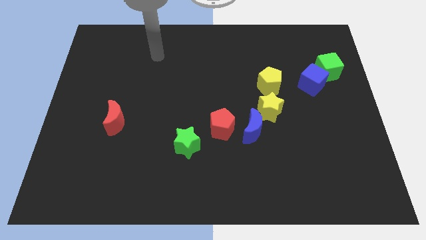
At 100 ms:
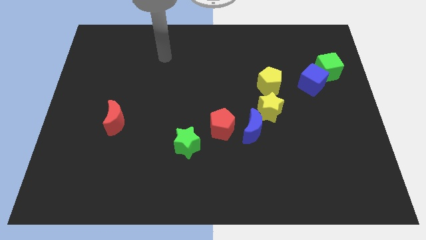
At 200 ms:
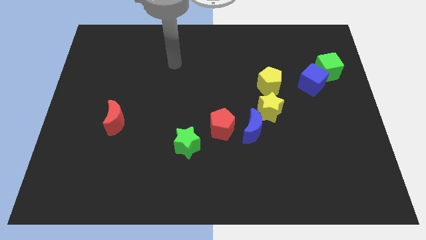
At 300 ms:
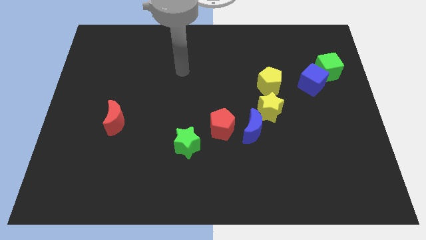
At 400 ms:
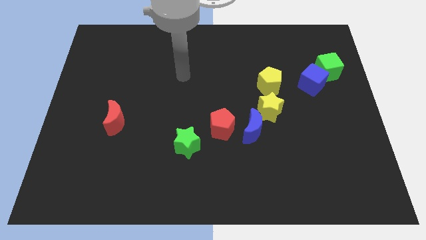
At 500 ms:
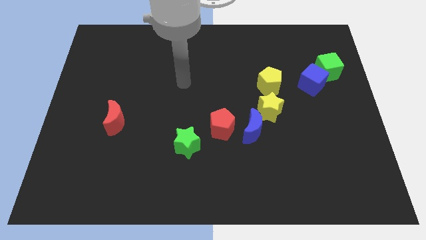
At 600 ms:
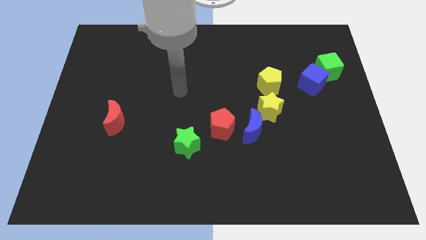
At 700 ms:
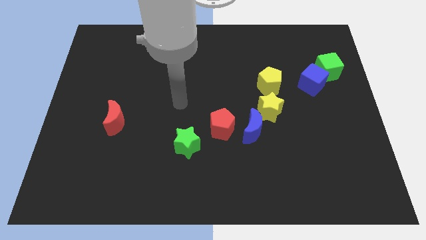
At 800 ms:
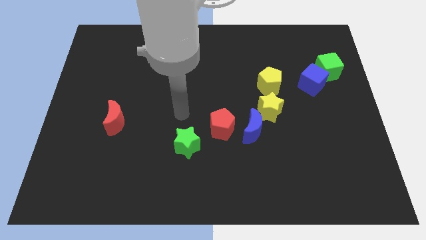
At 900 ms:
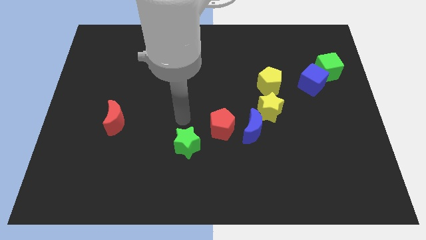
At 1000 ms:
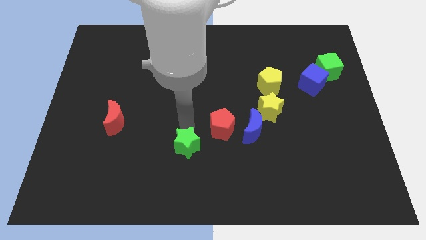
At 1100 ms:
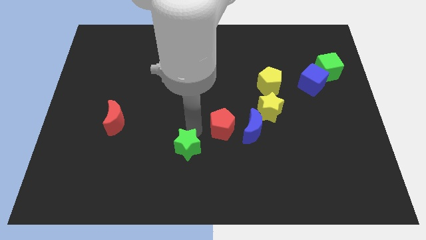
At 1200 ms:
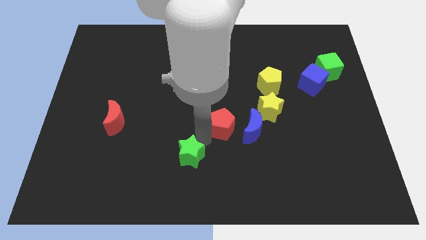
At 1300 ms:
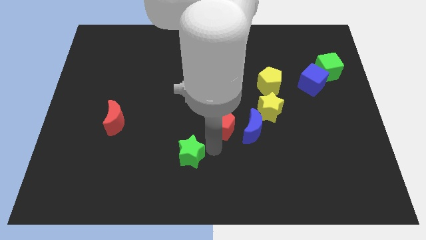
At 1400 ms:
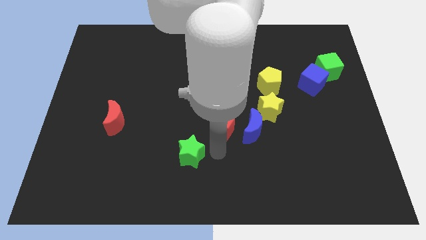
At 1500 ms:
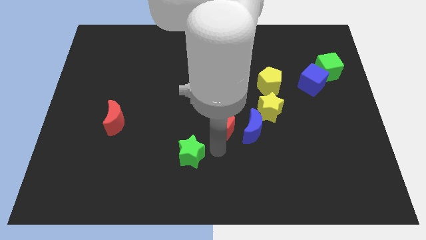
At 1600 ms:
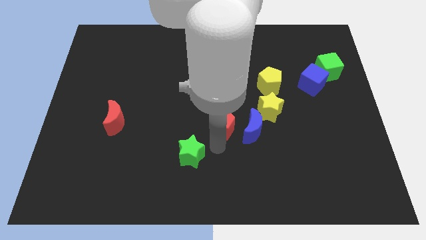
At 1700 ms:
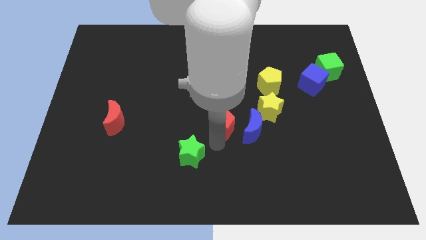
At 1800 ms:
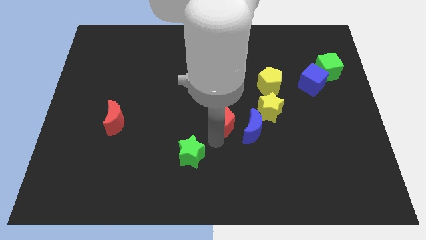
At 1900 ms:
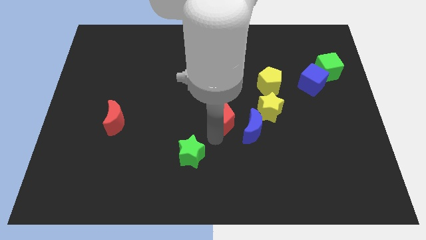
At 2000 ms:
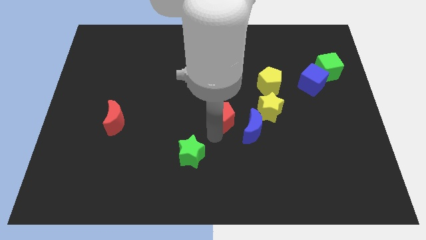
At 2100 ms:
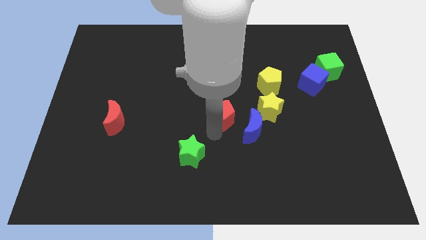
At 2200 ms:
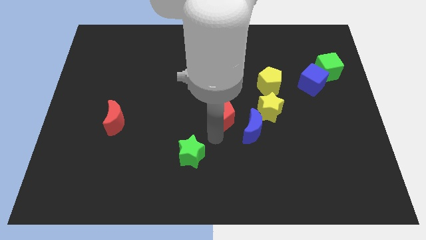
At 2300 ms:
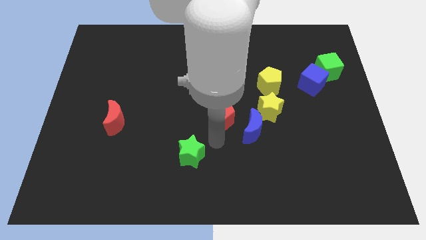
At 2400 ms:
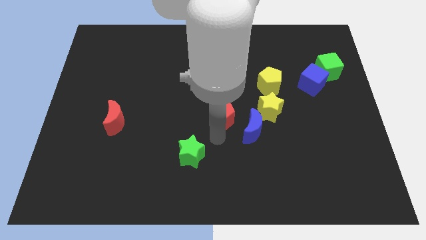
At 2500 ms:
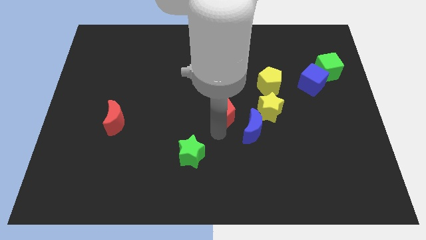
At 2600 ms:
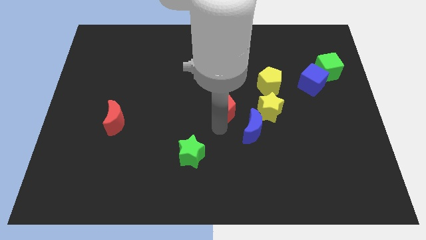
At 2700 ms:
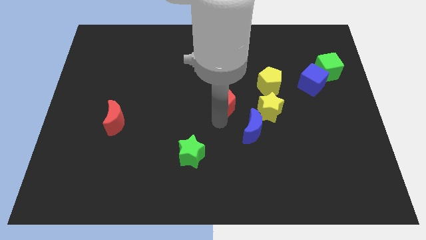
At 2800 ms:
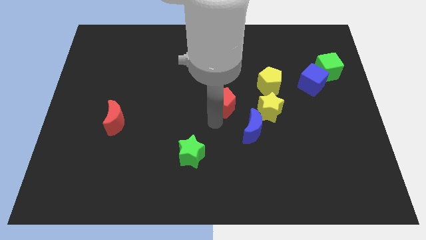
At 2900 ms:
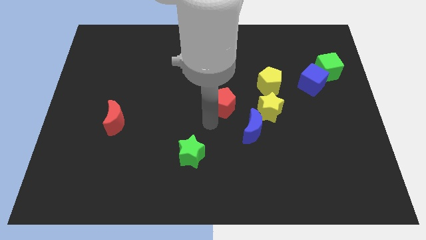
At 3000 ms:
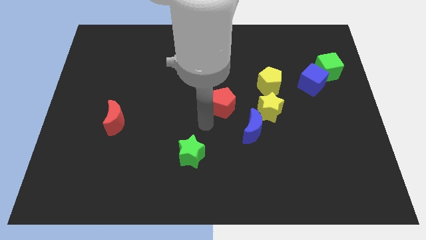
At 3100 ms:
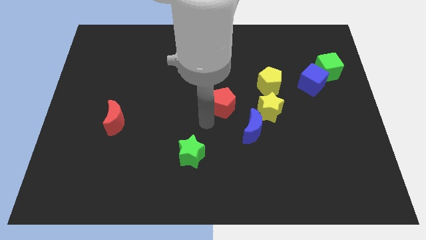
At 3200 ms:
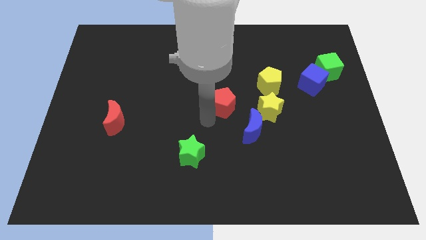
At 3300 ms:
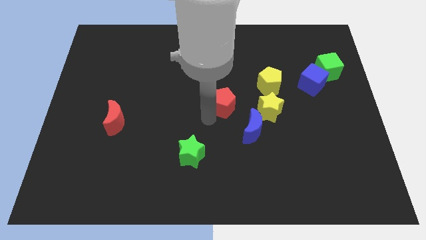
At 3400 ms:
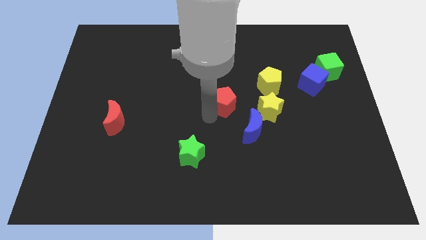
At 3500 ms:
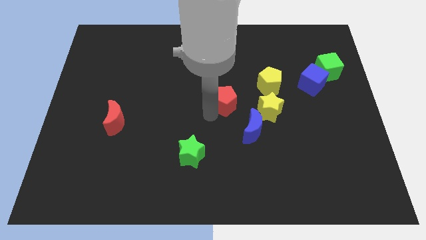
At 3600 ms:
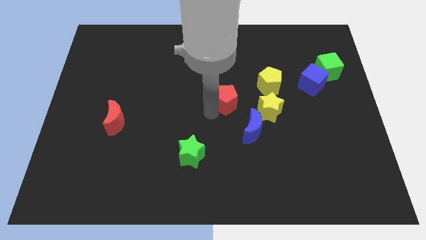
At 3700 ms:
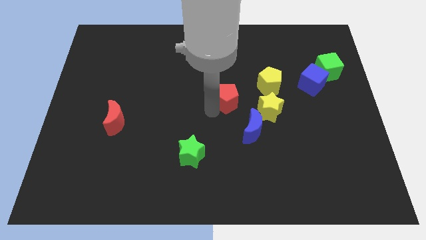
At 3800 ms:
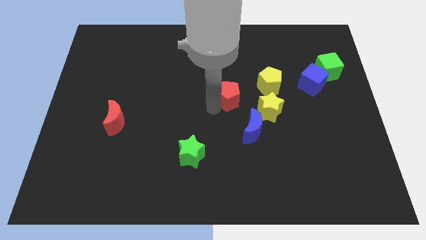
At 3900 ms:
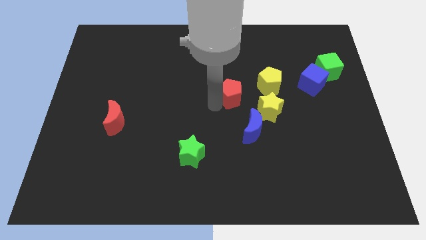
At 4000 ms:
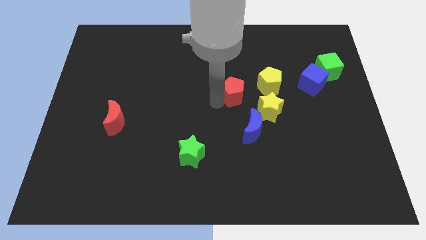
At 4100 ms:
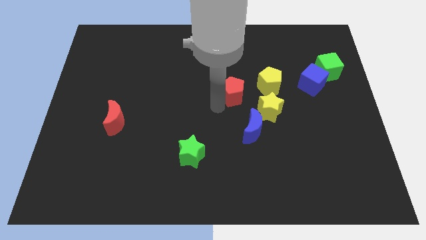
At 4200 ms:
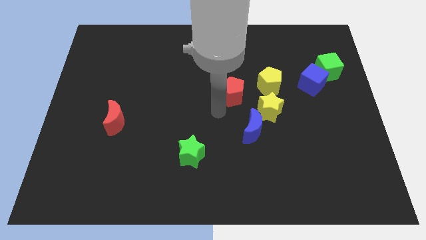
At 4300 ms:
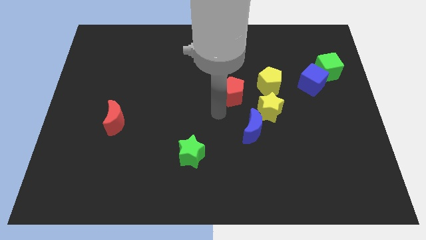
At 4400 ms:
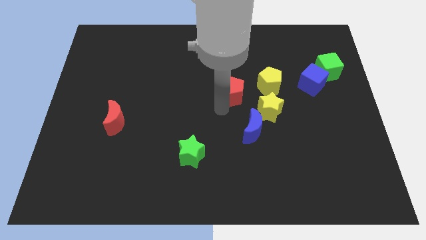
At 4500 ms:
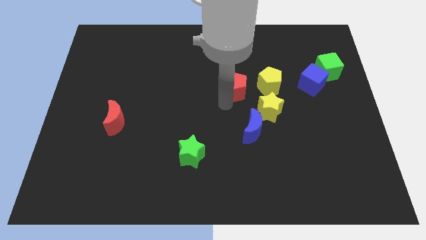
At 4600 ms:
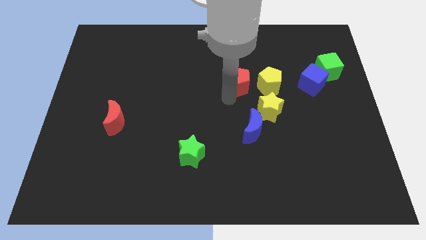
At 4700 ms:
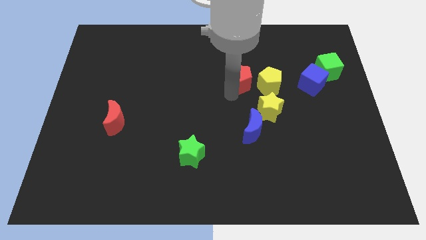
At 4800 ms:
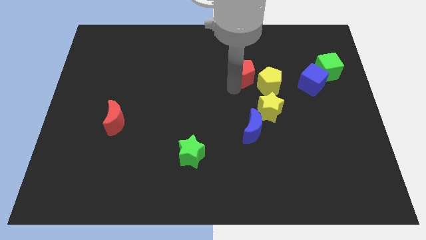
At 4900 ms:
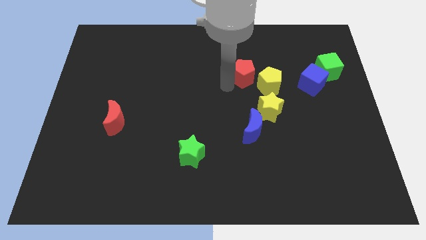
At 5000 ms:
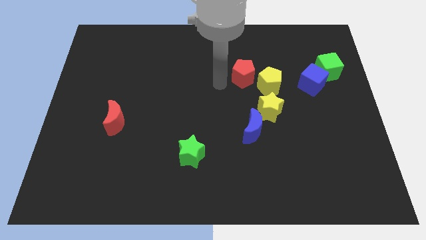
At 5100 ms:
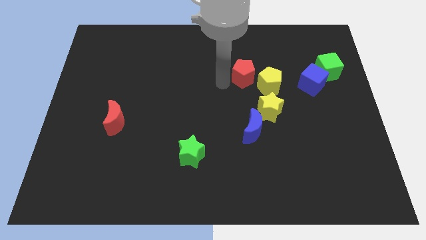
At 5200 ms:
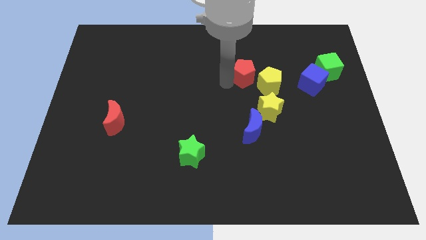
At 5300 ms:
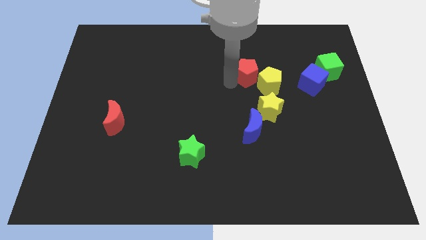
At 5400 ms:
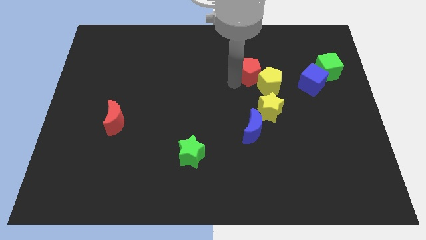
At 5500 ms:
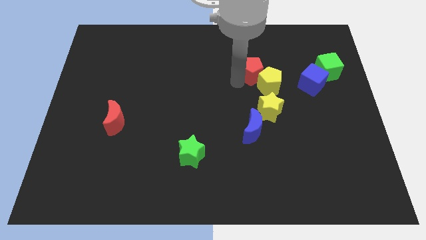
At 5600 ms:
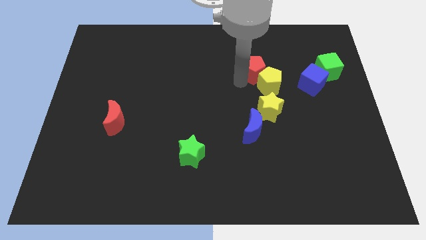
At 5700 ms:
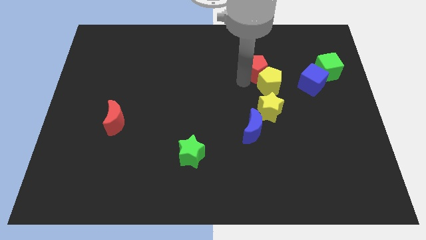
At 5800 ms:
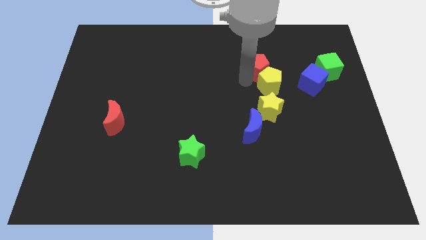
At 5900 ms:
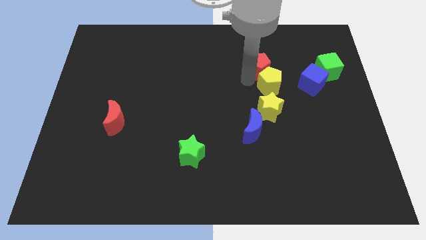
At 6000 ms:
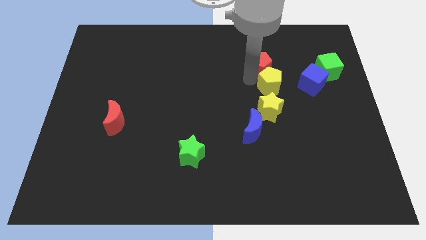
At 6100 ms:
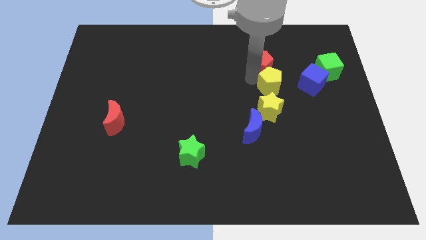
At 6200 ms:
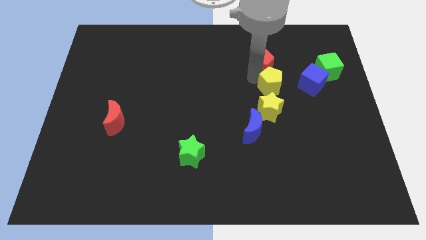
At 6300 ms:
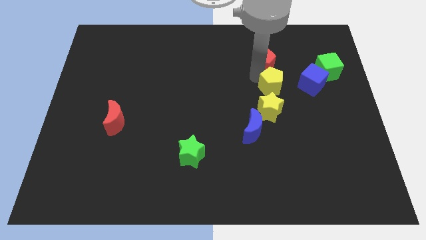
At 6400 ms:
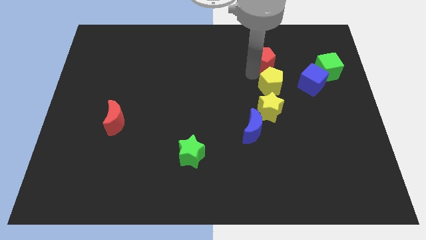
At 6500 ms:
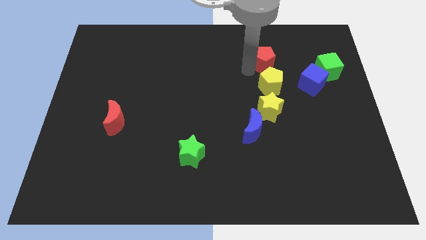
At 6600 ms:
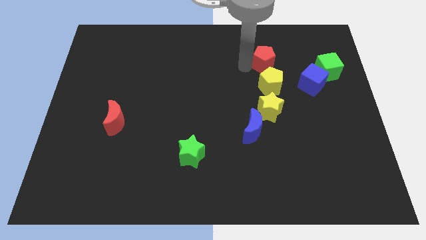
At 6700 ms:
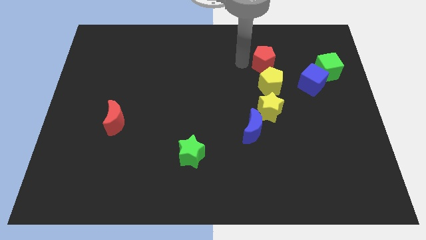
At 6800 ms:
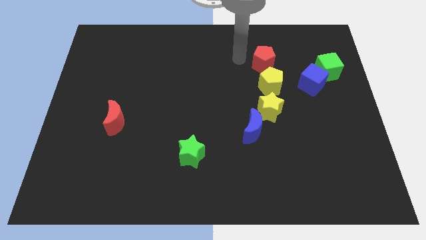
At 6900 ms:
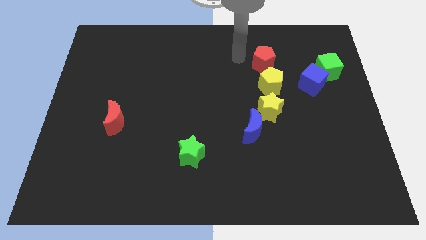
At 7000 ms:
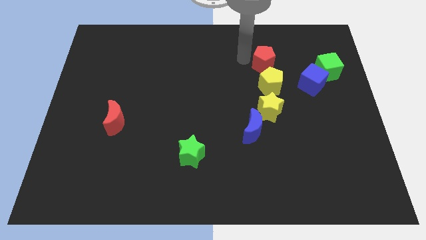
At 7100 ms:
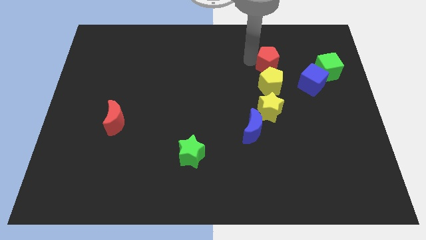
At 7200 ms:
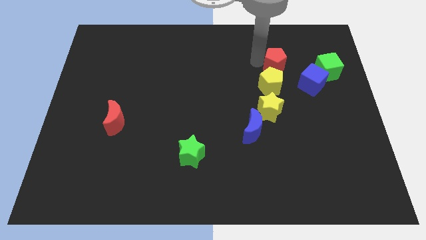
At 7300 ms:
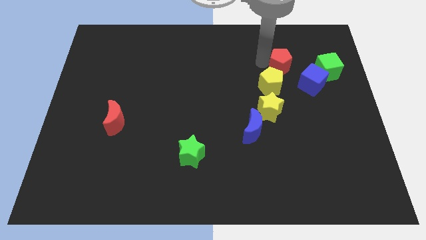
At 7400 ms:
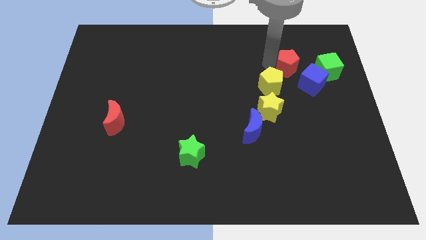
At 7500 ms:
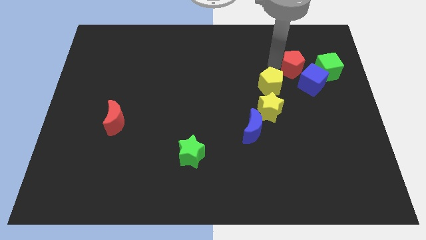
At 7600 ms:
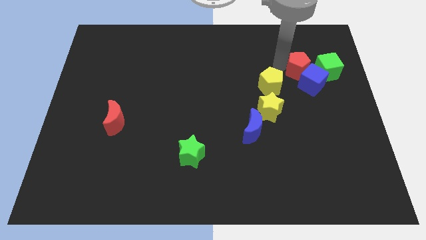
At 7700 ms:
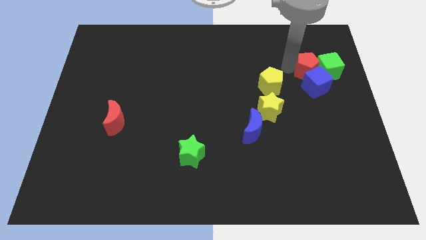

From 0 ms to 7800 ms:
move the red pentagon close to the green cube

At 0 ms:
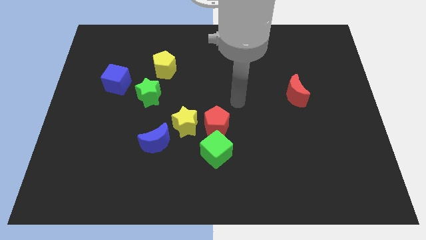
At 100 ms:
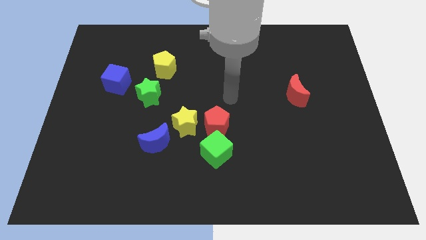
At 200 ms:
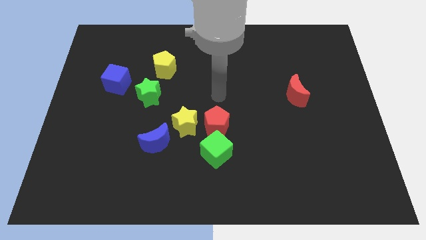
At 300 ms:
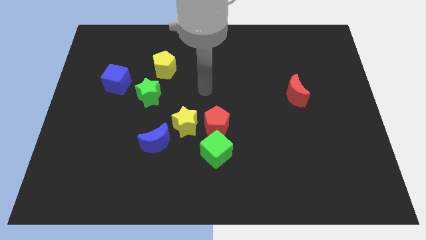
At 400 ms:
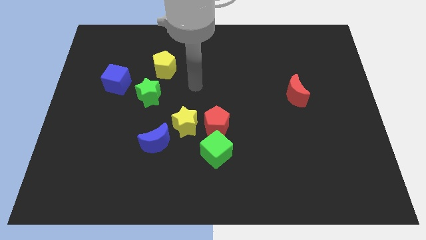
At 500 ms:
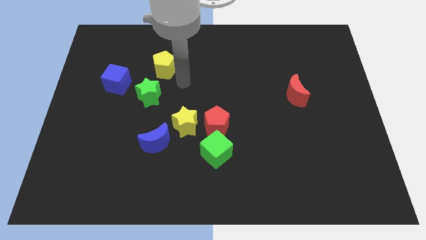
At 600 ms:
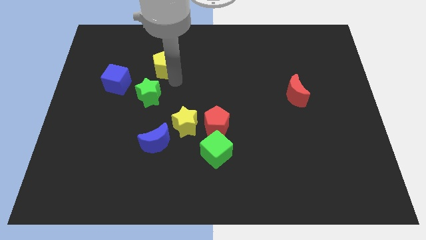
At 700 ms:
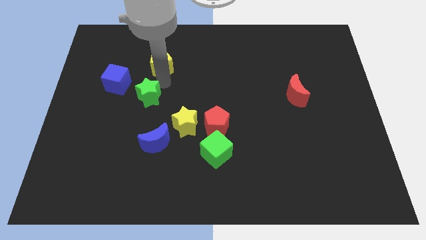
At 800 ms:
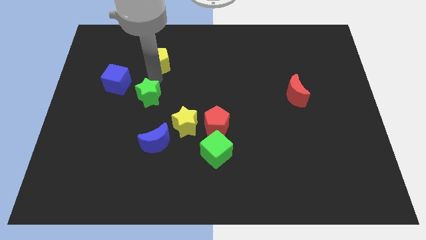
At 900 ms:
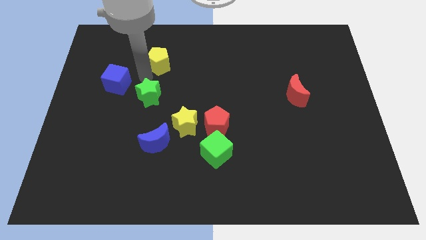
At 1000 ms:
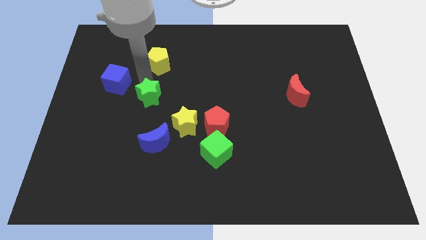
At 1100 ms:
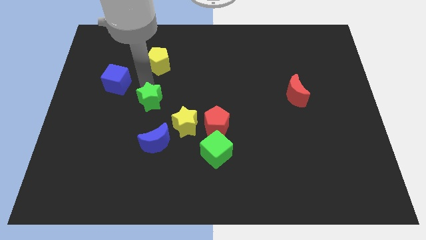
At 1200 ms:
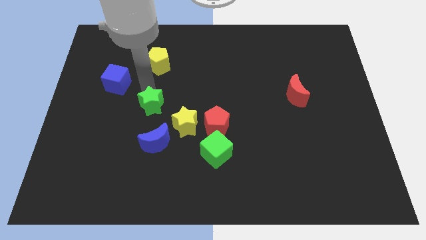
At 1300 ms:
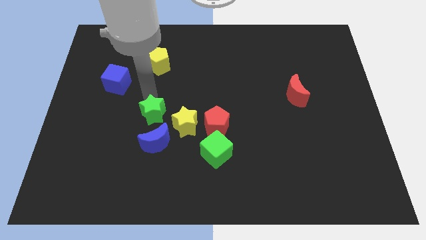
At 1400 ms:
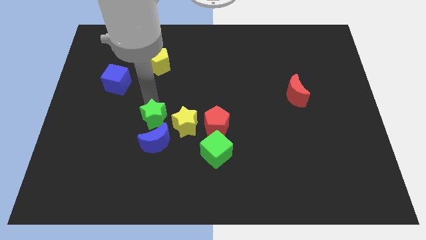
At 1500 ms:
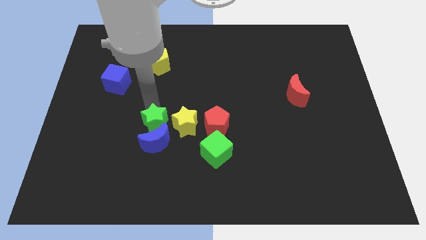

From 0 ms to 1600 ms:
push the green star towards the blue moon
